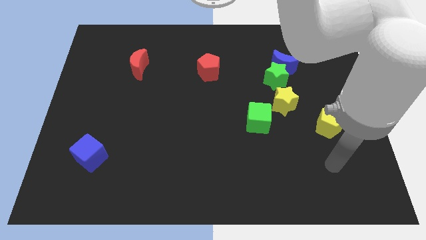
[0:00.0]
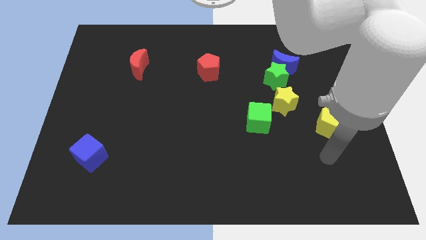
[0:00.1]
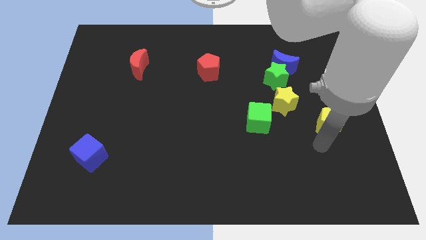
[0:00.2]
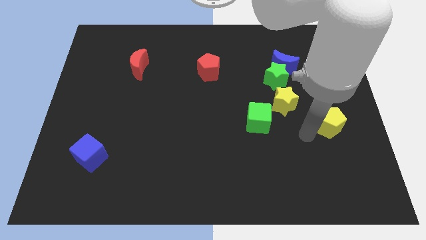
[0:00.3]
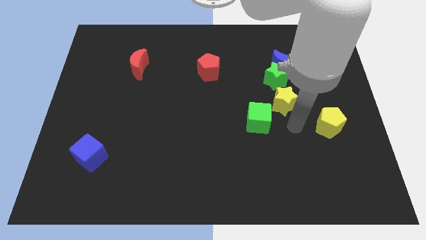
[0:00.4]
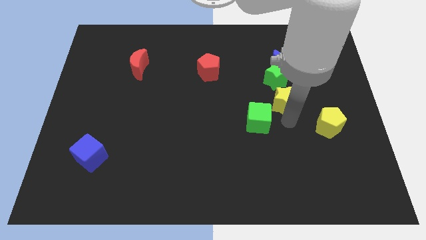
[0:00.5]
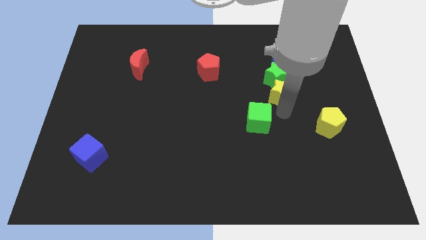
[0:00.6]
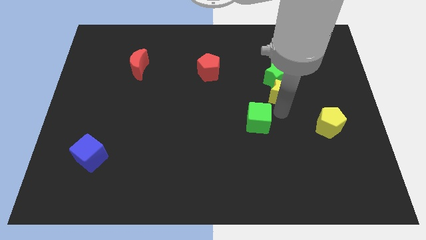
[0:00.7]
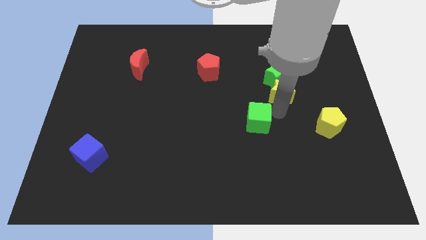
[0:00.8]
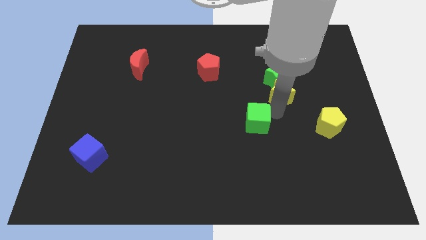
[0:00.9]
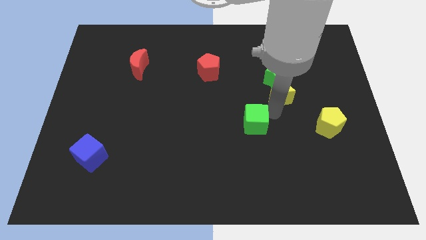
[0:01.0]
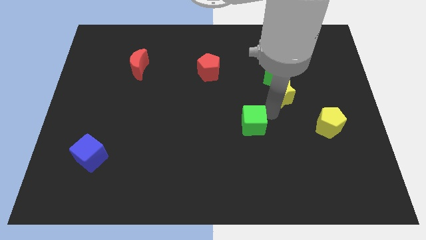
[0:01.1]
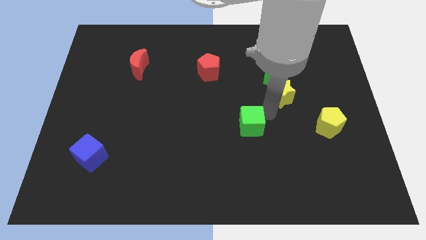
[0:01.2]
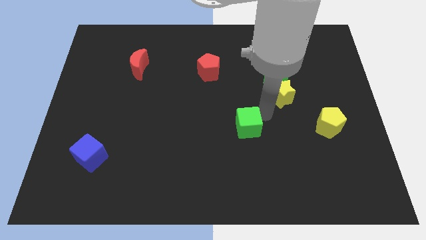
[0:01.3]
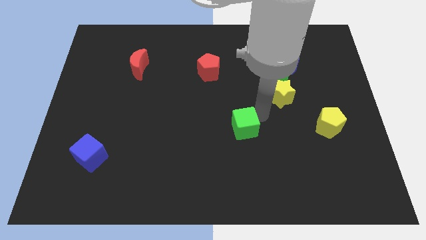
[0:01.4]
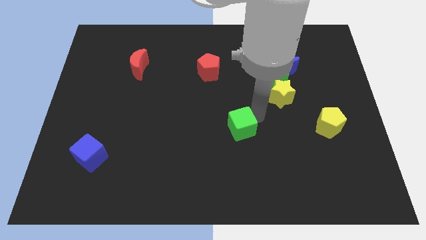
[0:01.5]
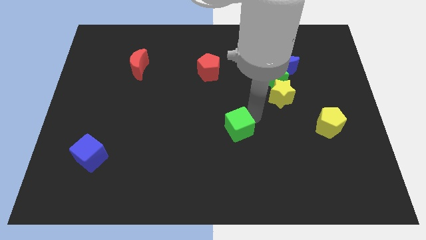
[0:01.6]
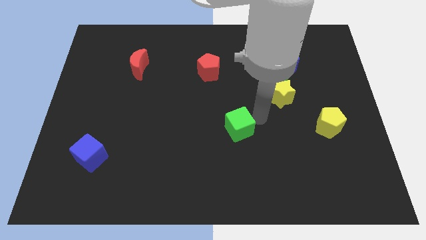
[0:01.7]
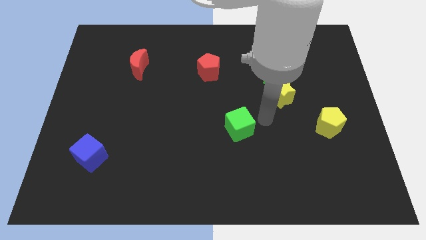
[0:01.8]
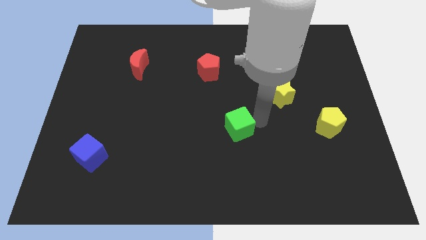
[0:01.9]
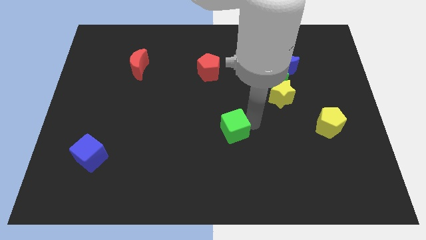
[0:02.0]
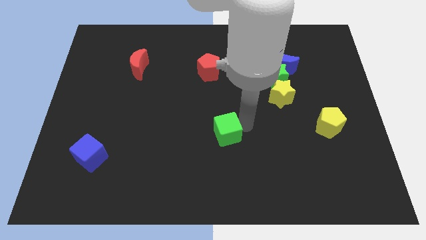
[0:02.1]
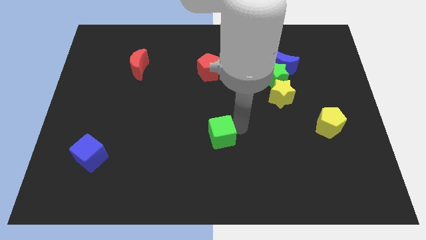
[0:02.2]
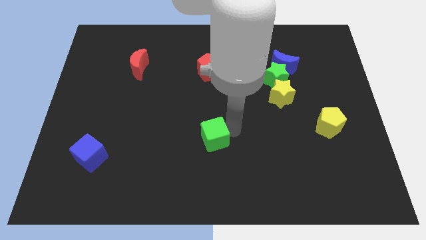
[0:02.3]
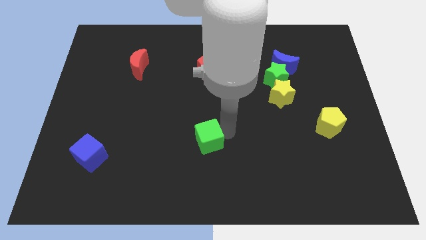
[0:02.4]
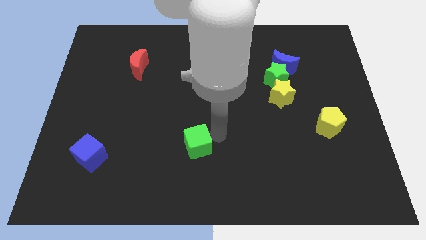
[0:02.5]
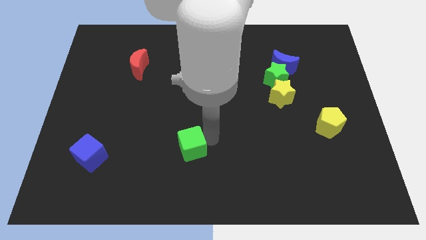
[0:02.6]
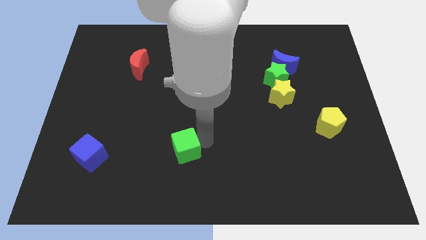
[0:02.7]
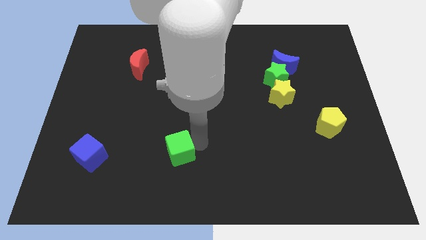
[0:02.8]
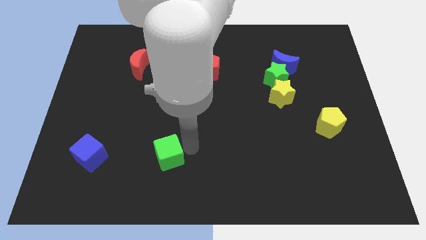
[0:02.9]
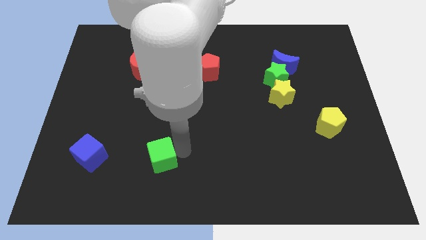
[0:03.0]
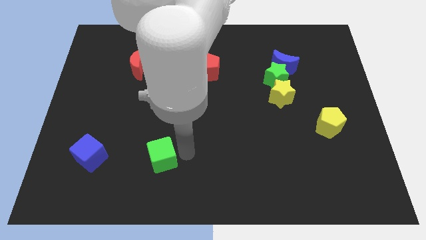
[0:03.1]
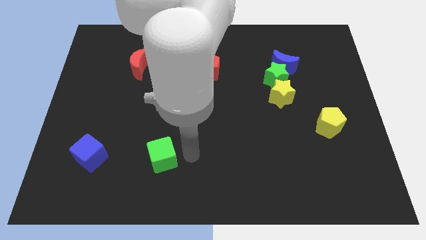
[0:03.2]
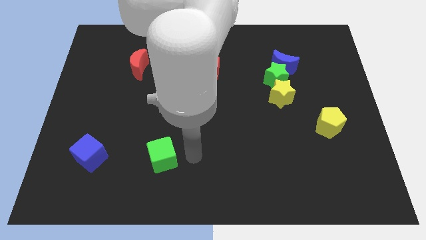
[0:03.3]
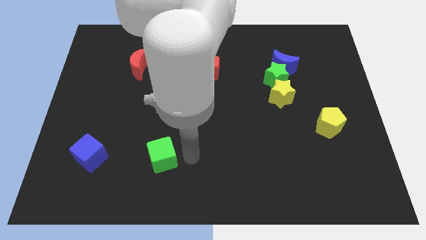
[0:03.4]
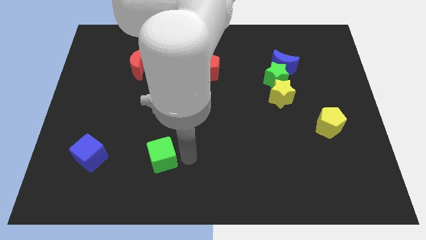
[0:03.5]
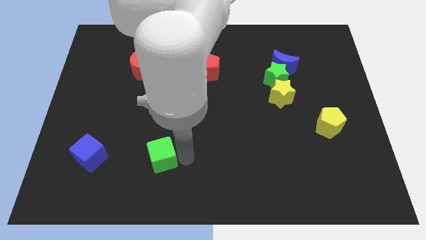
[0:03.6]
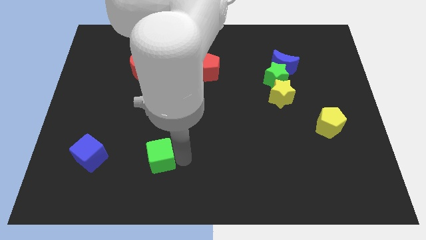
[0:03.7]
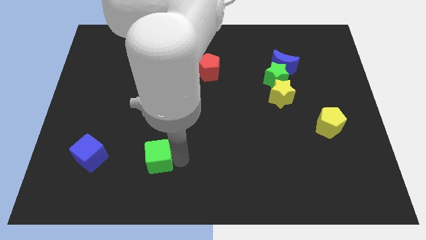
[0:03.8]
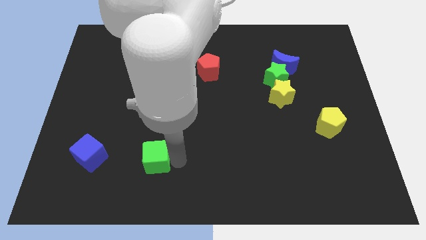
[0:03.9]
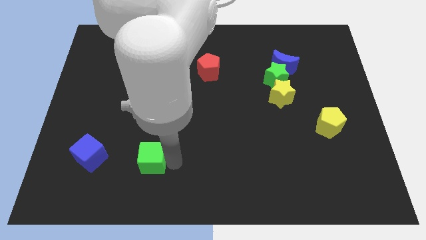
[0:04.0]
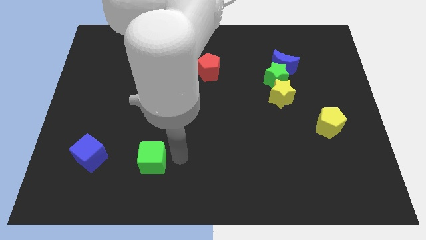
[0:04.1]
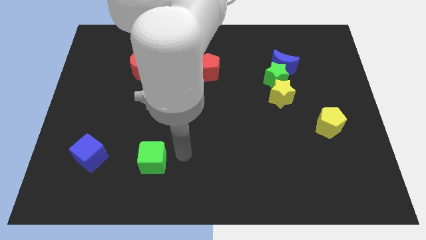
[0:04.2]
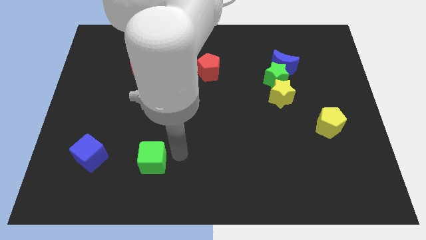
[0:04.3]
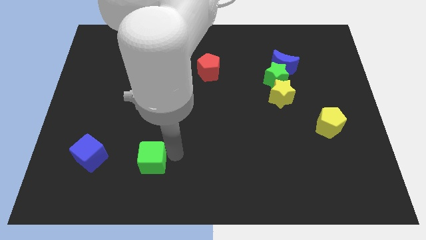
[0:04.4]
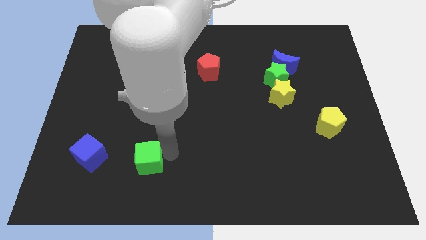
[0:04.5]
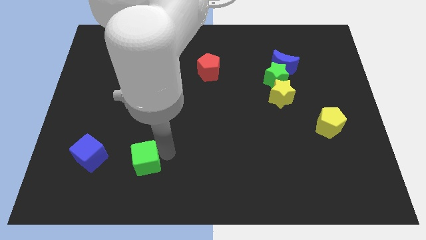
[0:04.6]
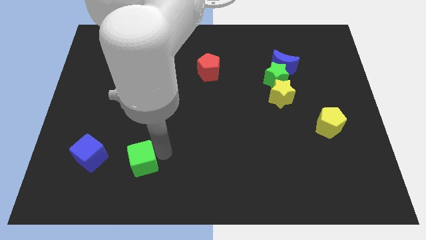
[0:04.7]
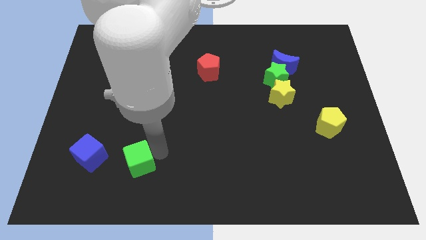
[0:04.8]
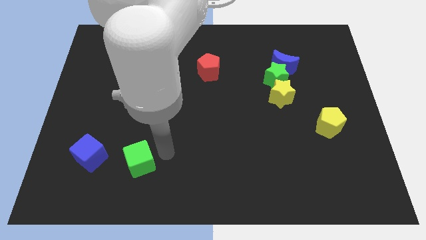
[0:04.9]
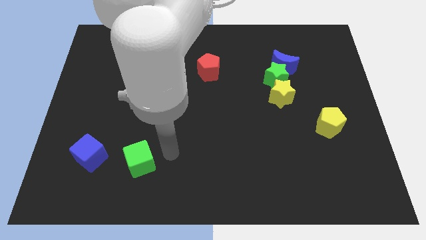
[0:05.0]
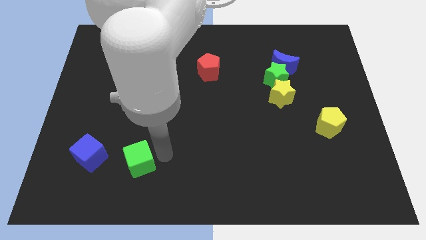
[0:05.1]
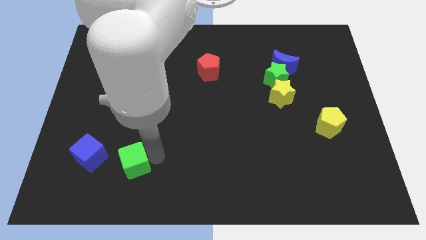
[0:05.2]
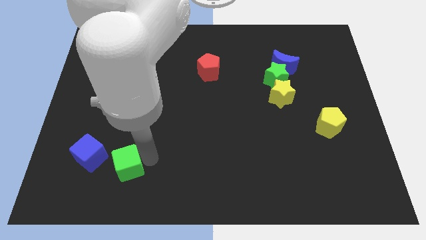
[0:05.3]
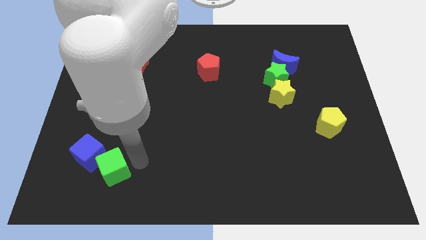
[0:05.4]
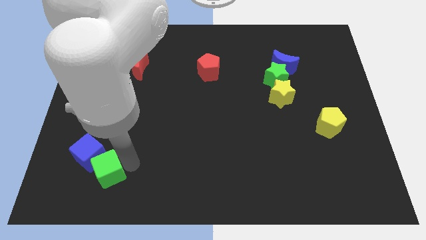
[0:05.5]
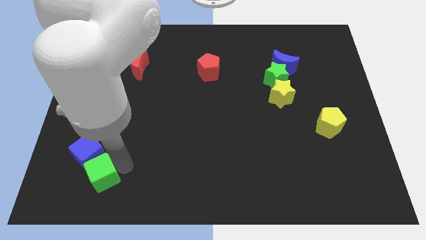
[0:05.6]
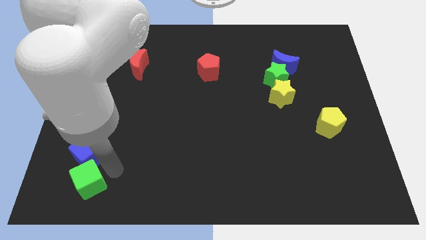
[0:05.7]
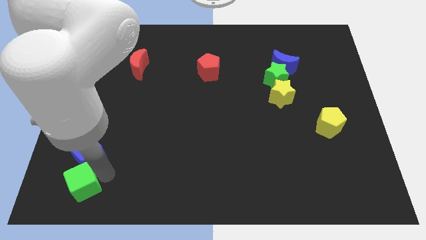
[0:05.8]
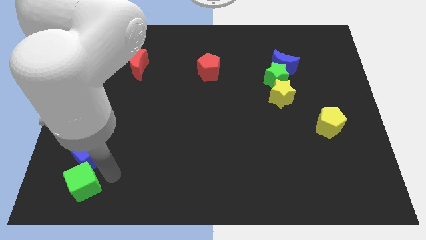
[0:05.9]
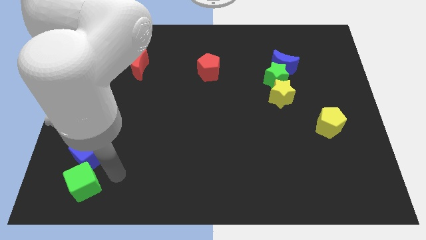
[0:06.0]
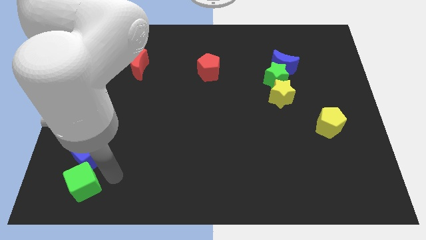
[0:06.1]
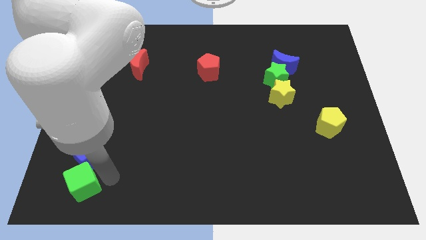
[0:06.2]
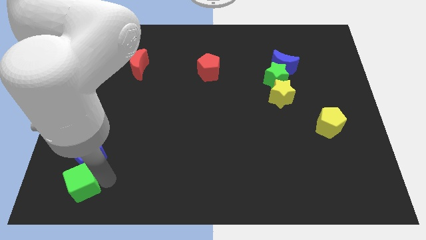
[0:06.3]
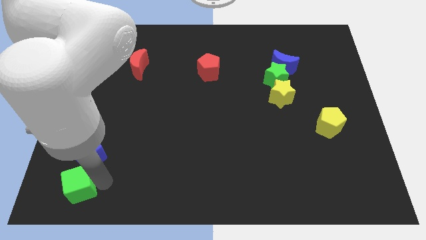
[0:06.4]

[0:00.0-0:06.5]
push the green cube to the bottom left corner

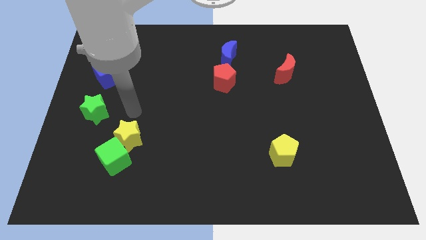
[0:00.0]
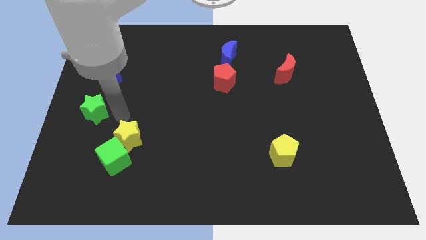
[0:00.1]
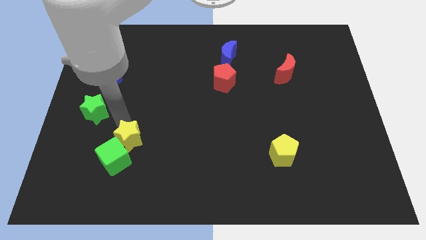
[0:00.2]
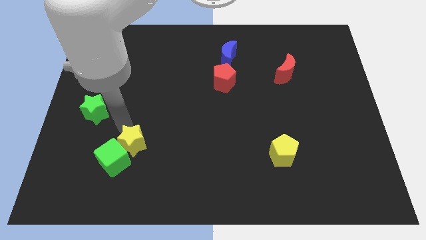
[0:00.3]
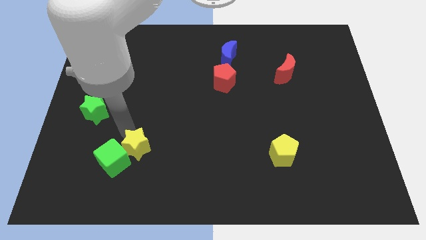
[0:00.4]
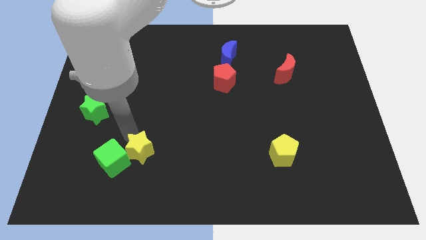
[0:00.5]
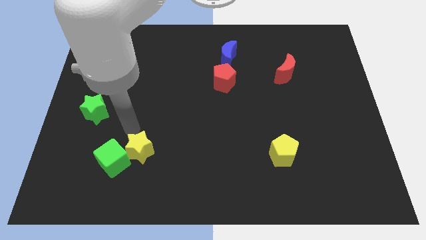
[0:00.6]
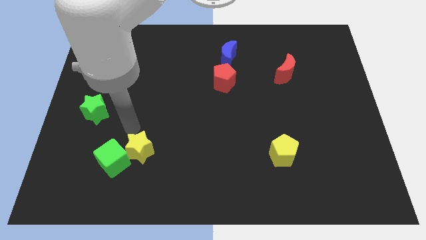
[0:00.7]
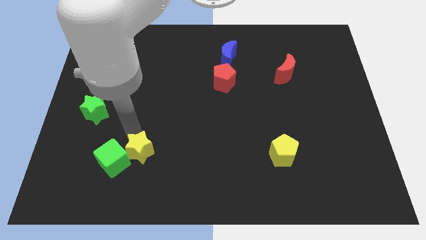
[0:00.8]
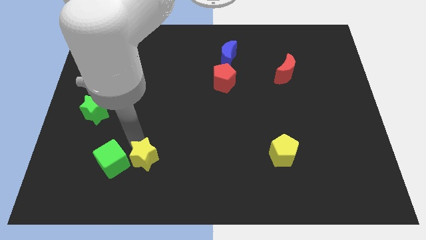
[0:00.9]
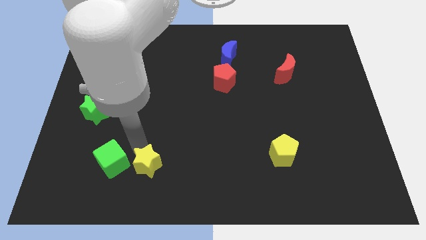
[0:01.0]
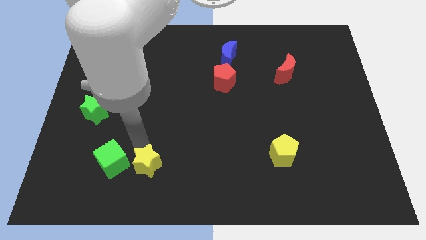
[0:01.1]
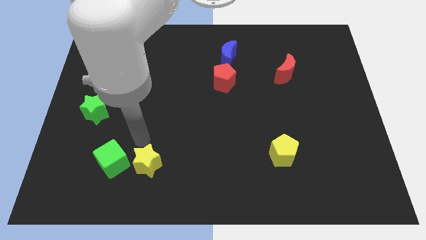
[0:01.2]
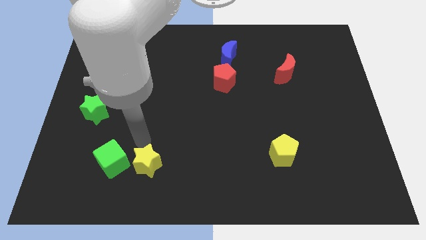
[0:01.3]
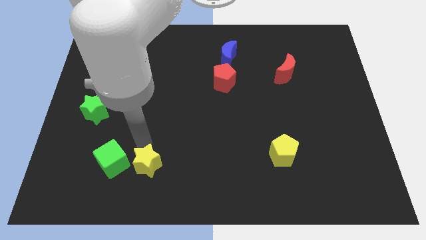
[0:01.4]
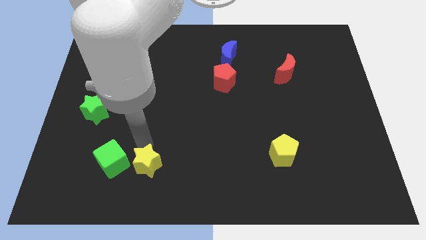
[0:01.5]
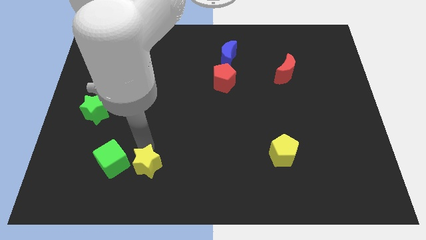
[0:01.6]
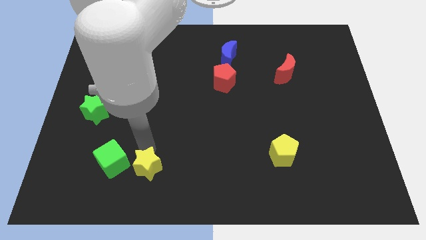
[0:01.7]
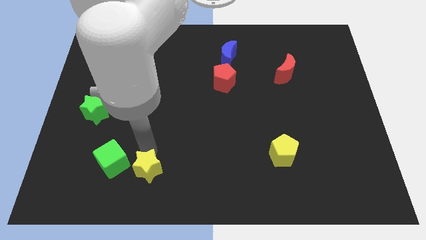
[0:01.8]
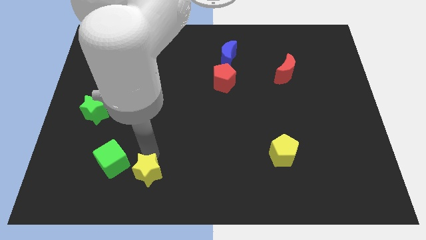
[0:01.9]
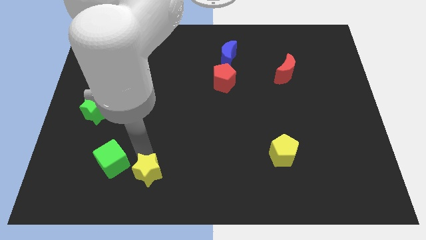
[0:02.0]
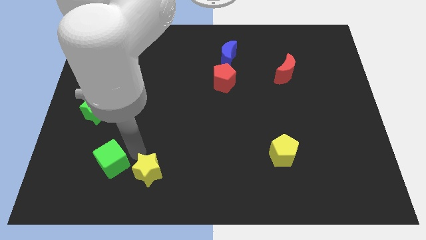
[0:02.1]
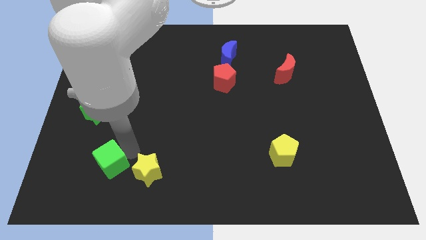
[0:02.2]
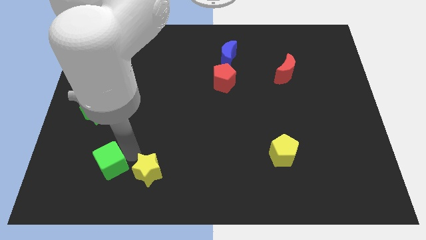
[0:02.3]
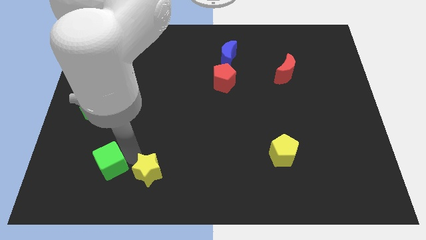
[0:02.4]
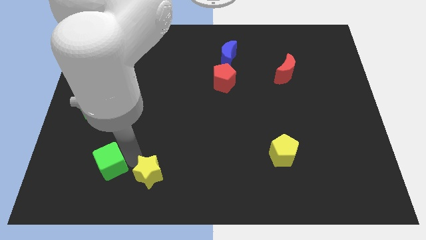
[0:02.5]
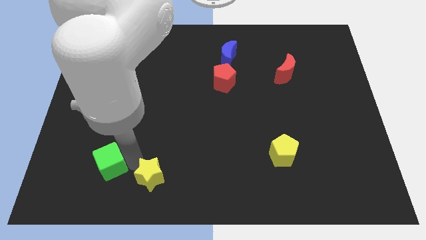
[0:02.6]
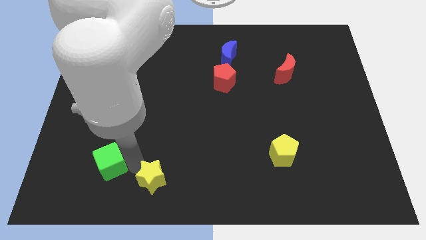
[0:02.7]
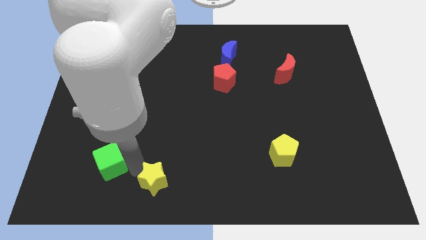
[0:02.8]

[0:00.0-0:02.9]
move the yellow star to the bottom side
